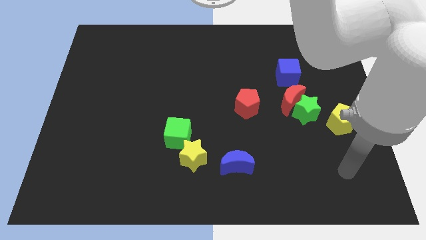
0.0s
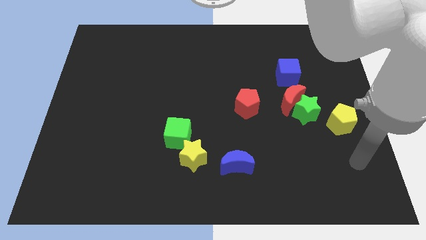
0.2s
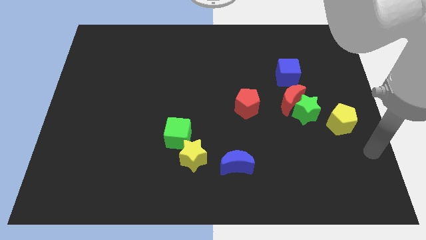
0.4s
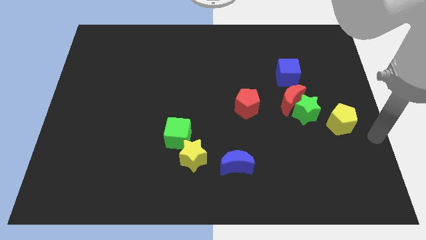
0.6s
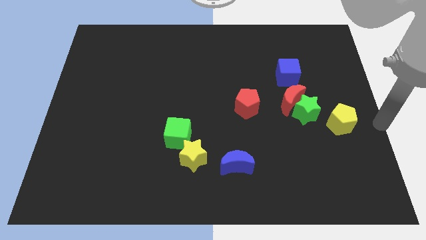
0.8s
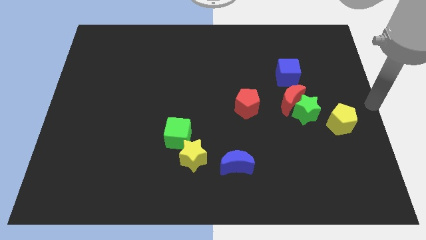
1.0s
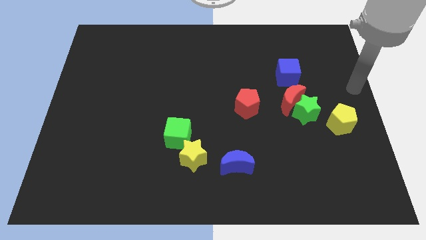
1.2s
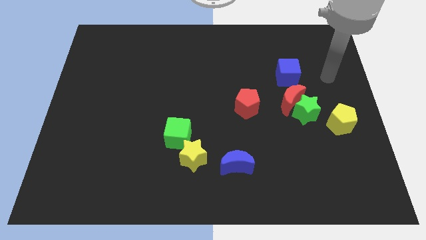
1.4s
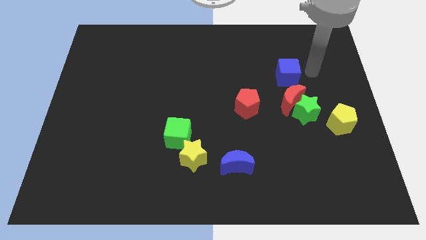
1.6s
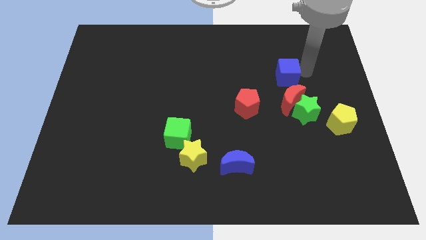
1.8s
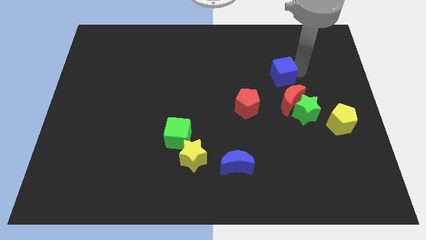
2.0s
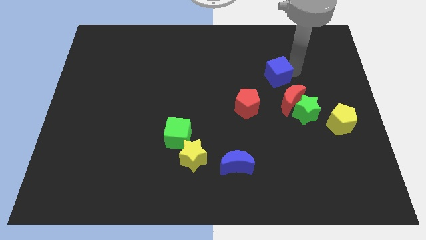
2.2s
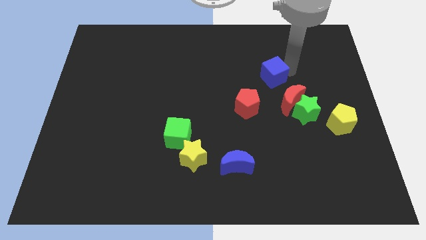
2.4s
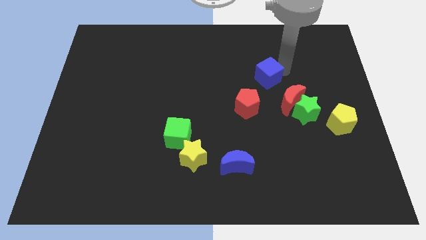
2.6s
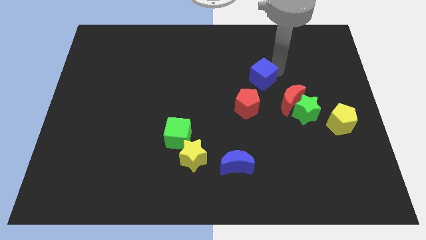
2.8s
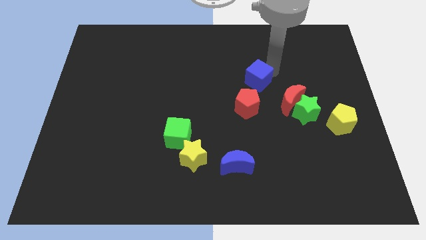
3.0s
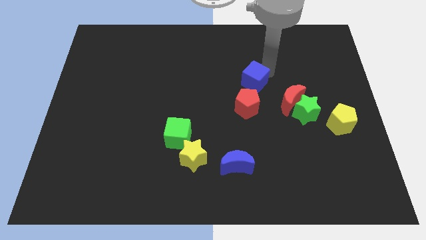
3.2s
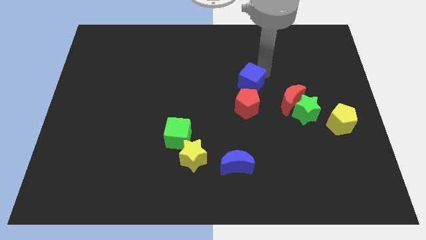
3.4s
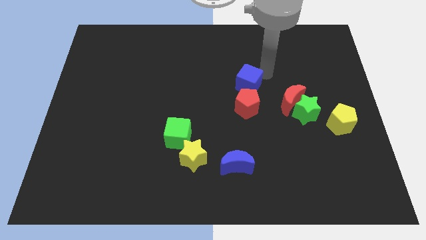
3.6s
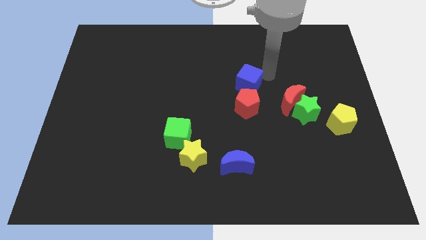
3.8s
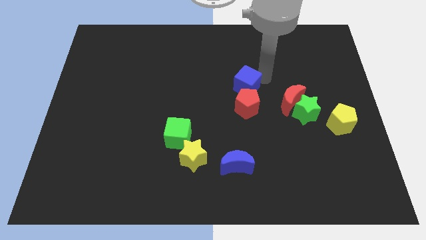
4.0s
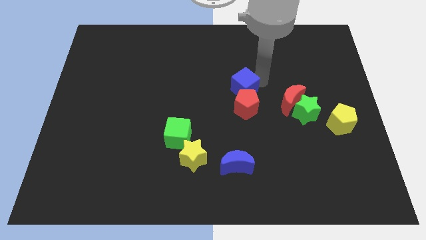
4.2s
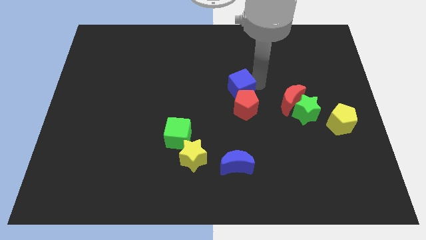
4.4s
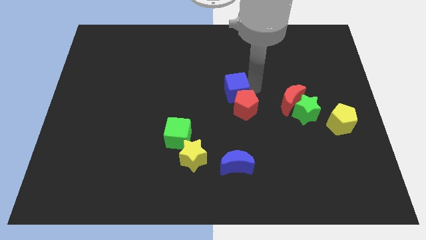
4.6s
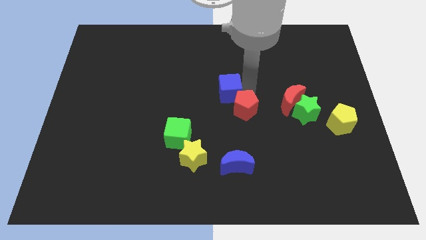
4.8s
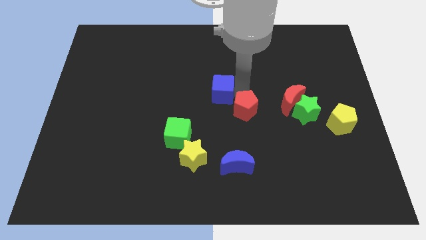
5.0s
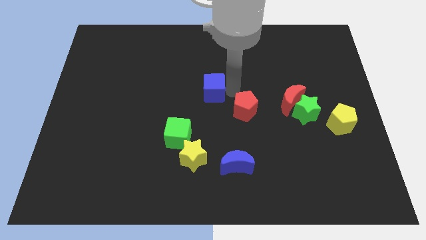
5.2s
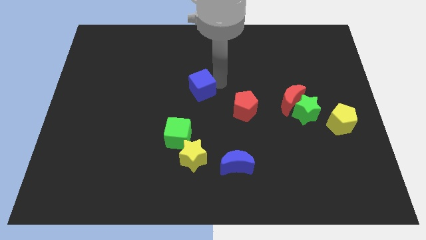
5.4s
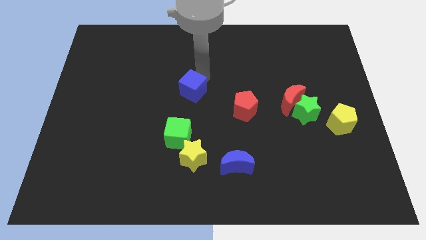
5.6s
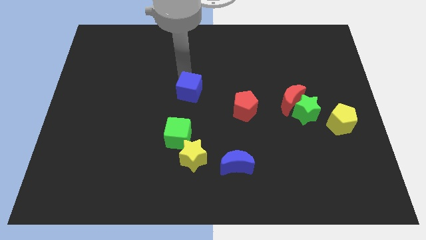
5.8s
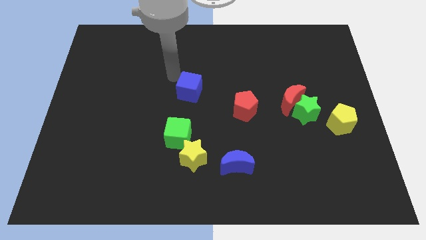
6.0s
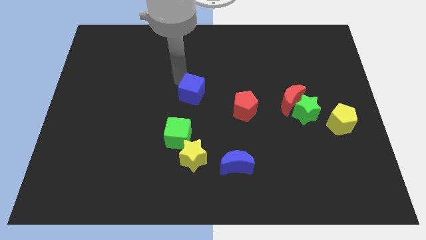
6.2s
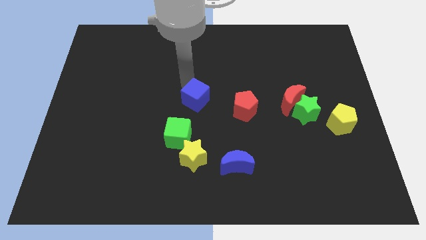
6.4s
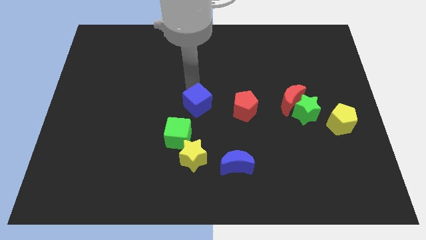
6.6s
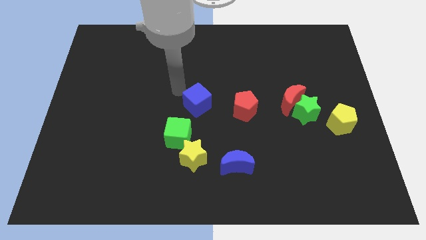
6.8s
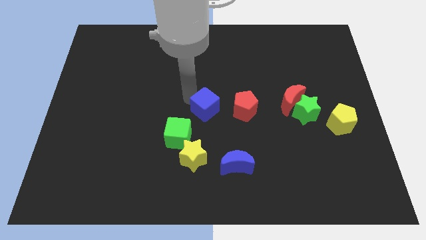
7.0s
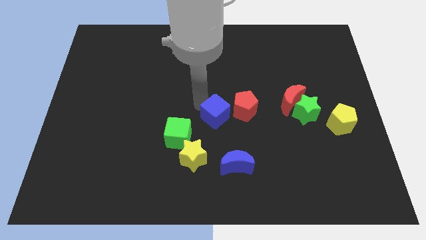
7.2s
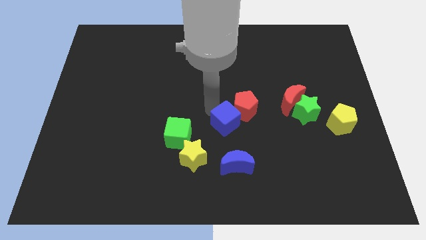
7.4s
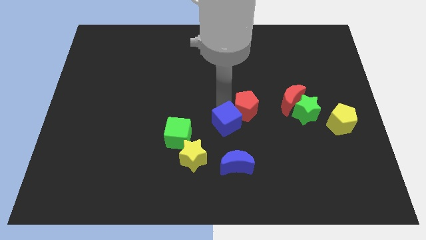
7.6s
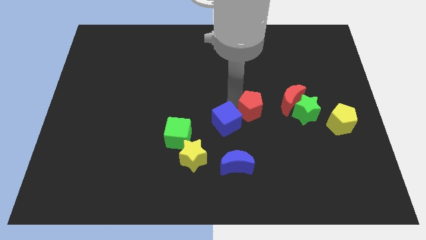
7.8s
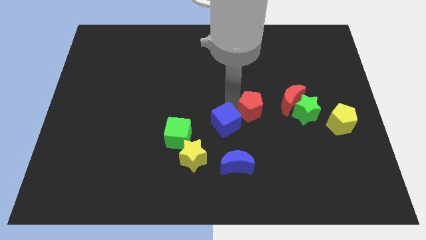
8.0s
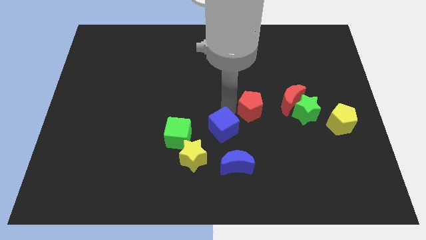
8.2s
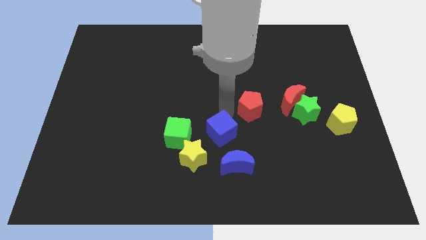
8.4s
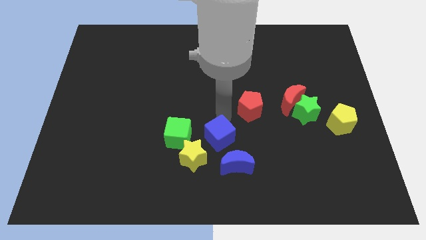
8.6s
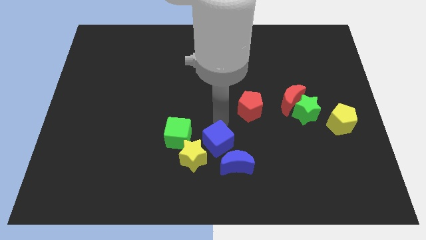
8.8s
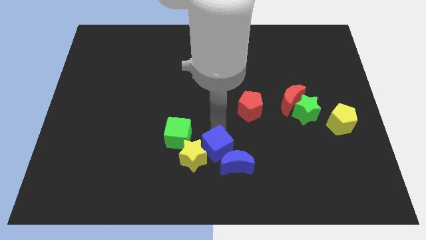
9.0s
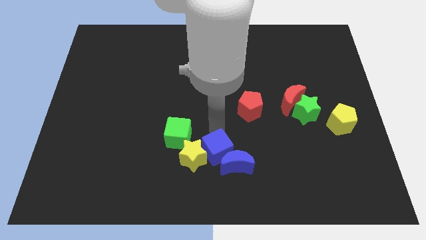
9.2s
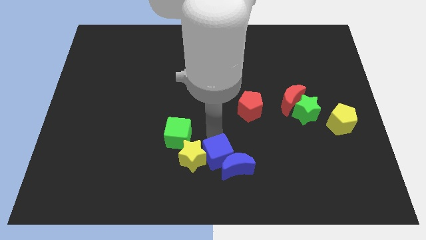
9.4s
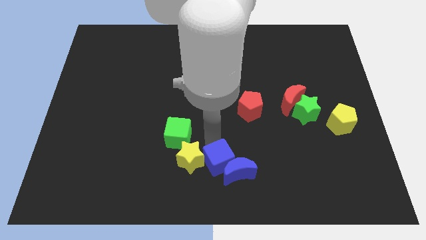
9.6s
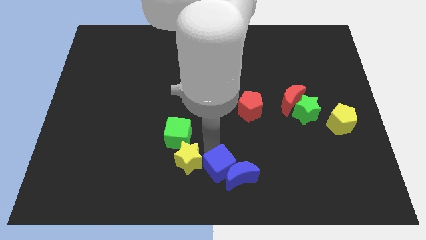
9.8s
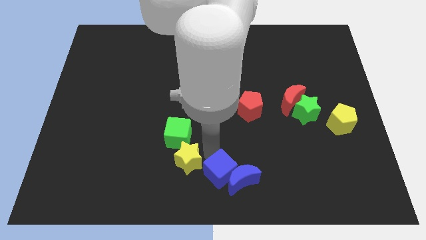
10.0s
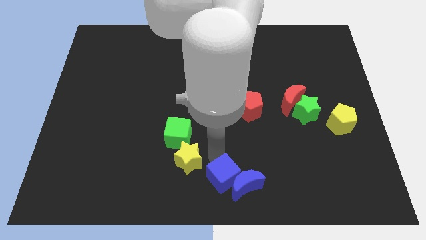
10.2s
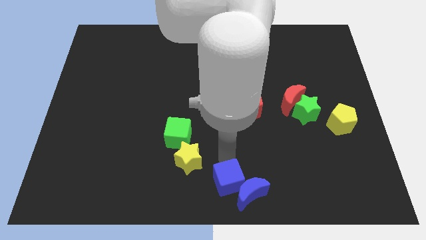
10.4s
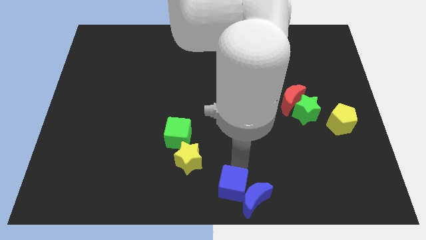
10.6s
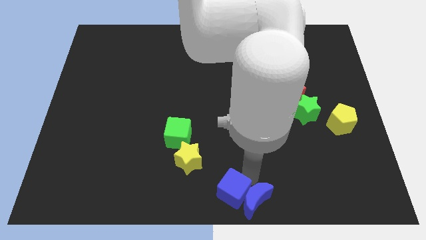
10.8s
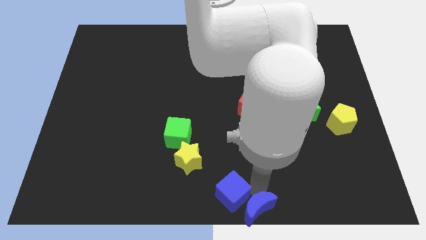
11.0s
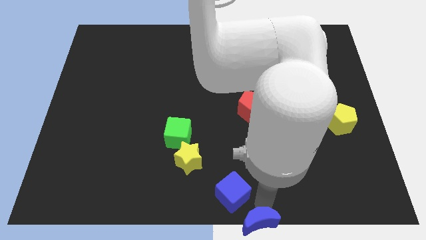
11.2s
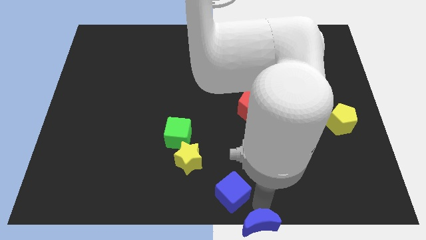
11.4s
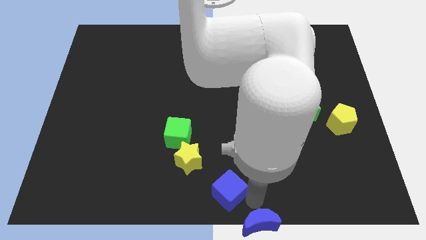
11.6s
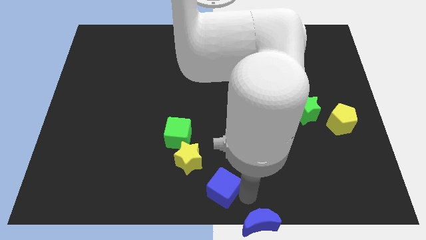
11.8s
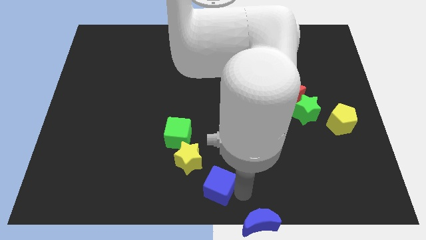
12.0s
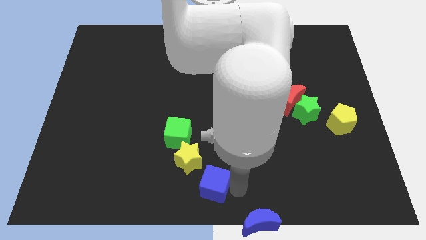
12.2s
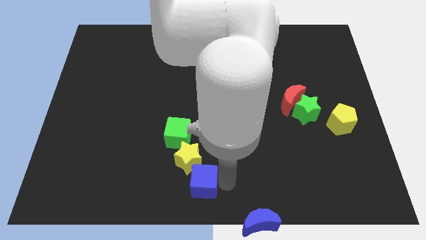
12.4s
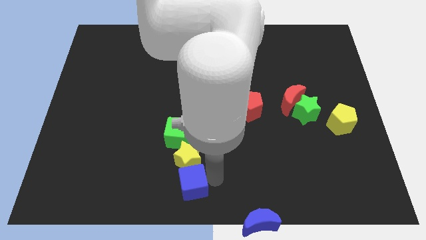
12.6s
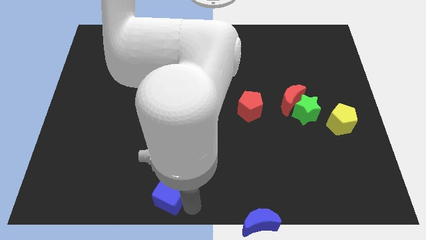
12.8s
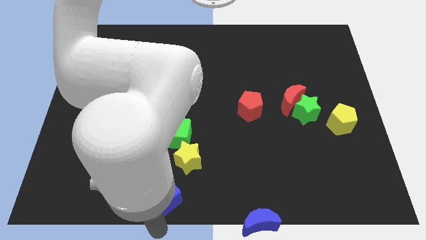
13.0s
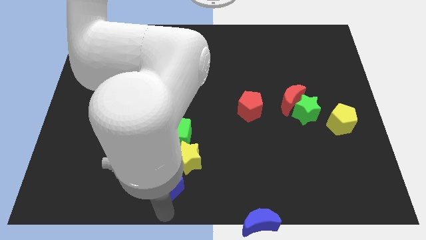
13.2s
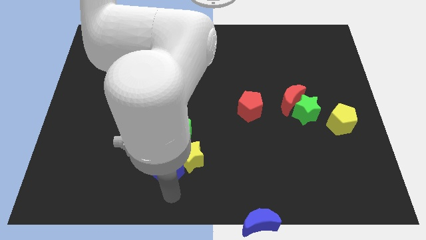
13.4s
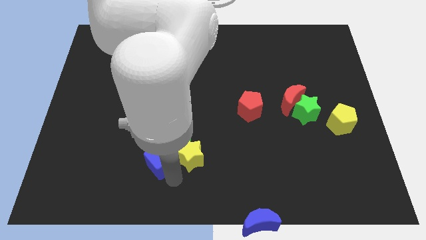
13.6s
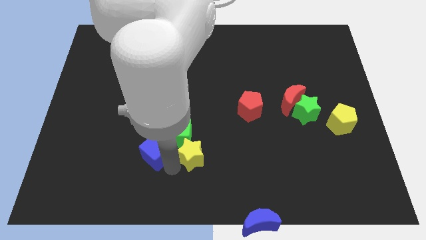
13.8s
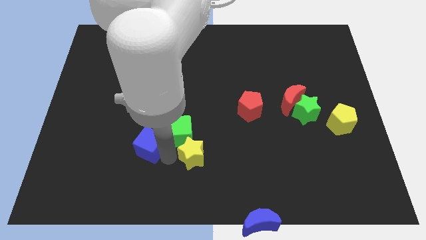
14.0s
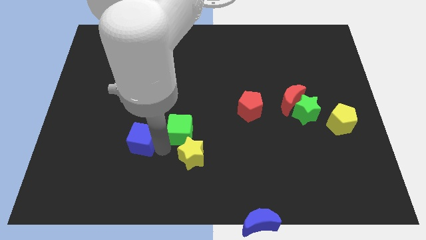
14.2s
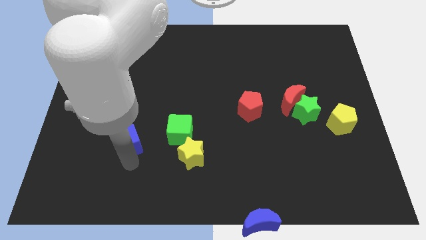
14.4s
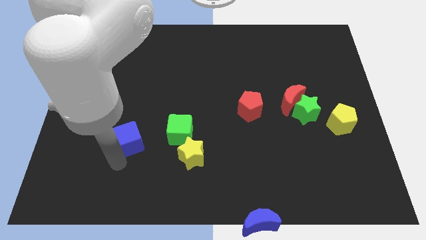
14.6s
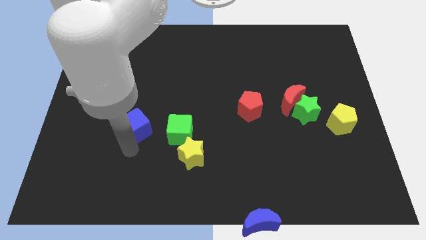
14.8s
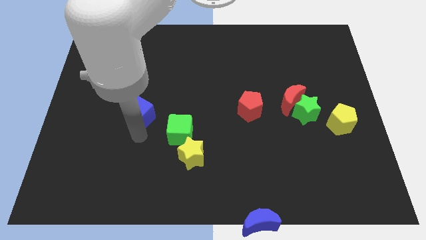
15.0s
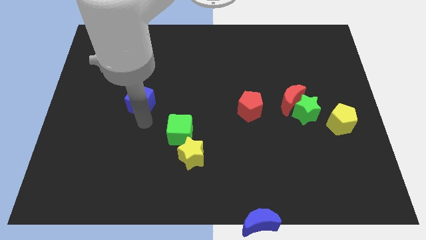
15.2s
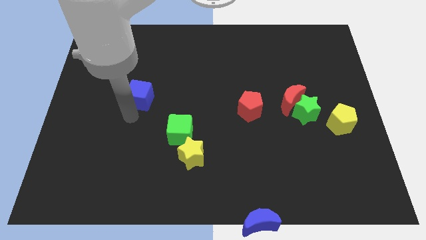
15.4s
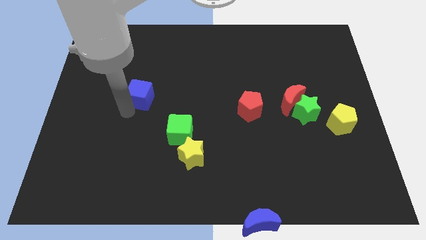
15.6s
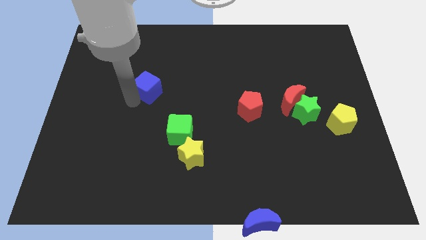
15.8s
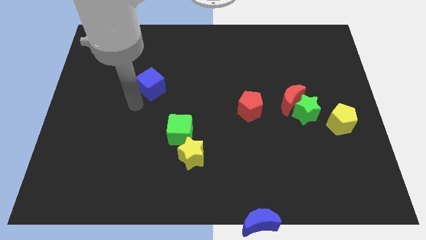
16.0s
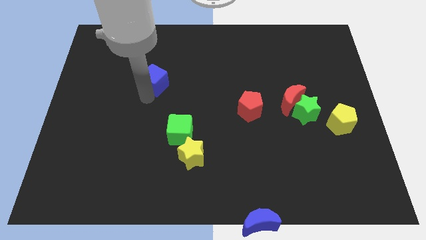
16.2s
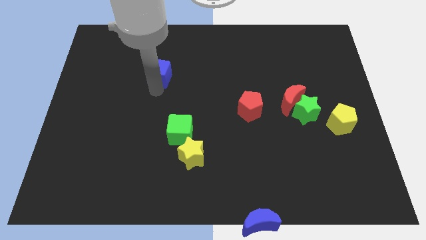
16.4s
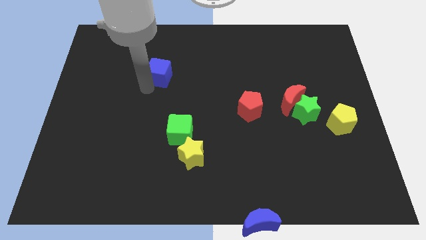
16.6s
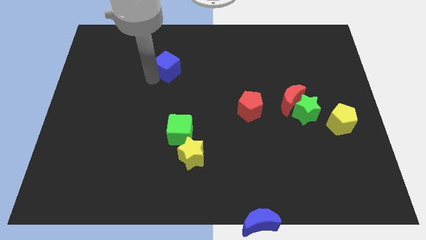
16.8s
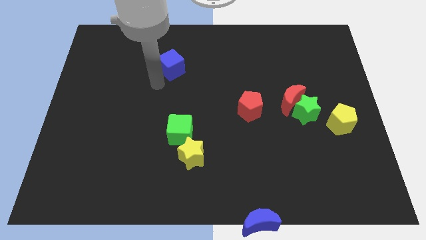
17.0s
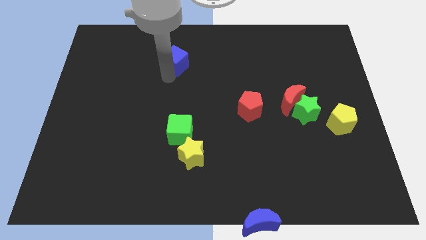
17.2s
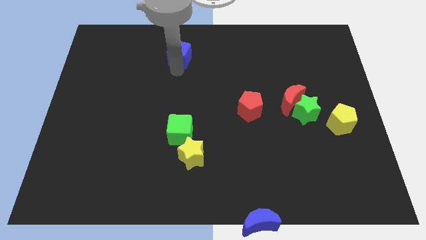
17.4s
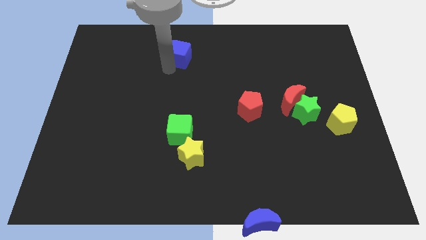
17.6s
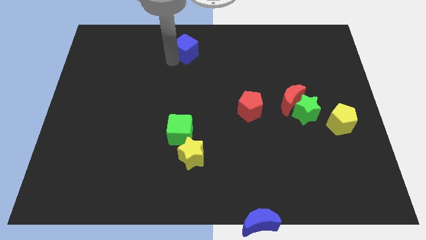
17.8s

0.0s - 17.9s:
put the blue cube to the towards your base
